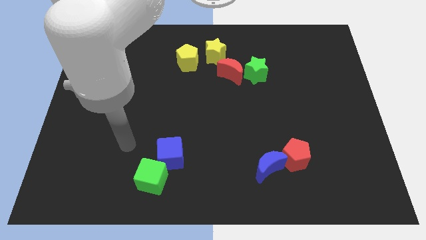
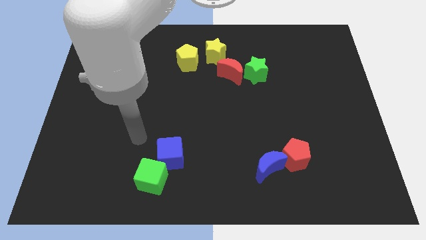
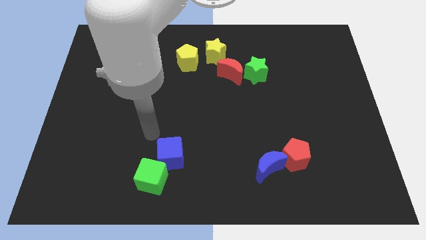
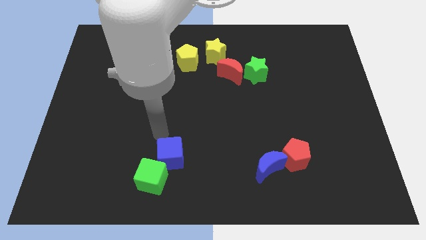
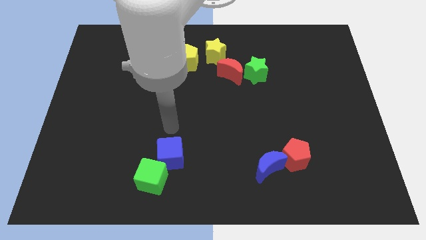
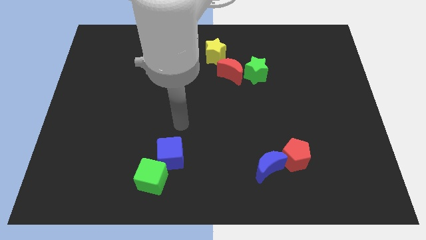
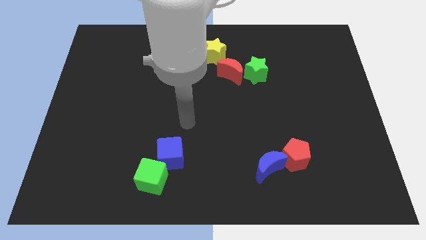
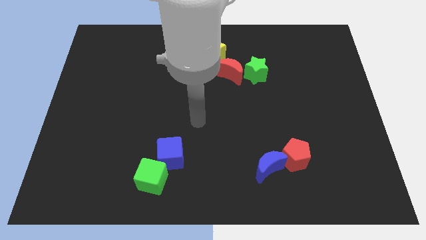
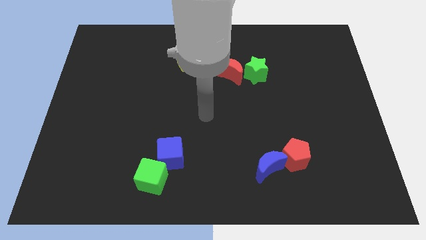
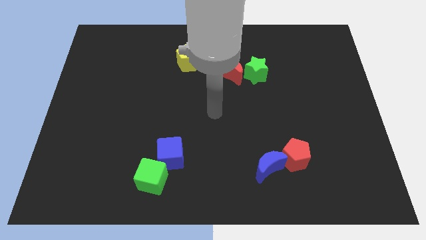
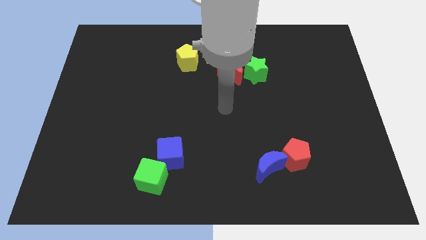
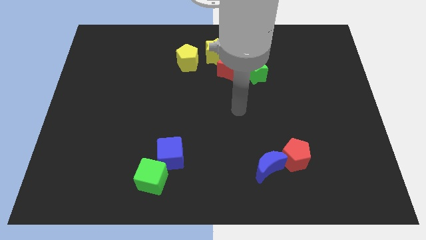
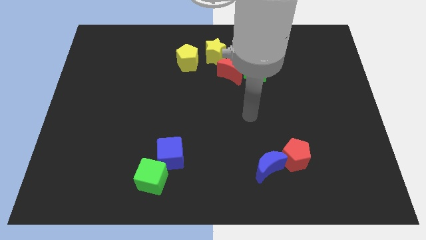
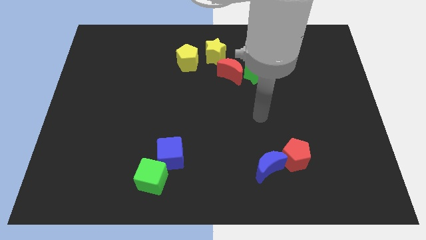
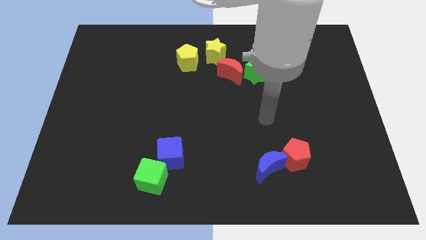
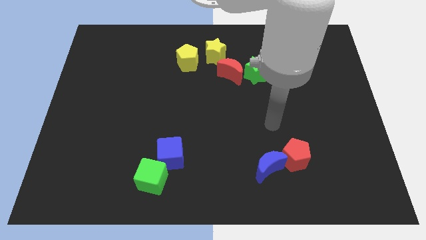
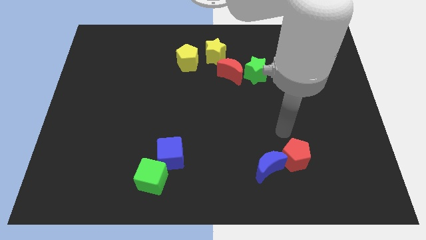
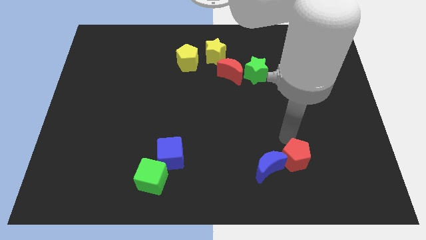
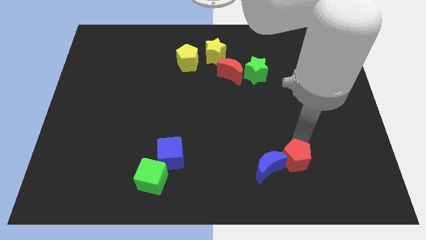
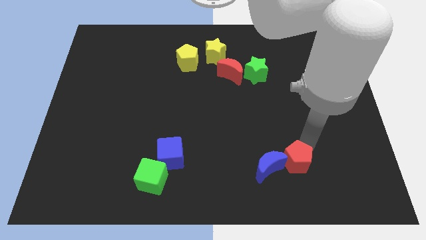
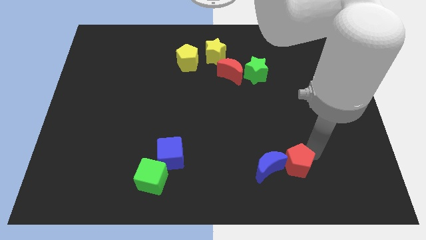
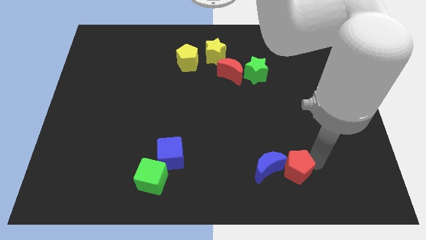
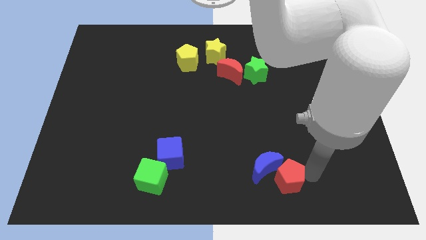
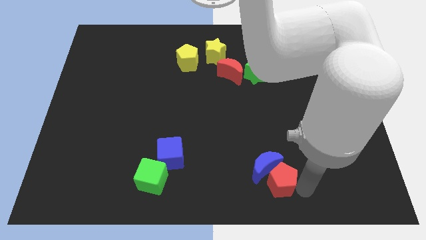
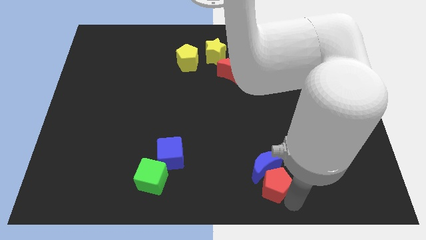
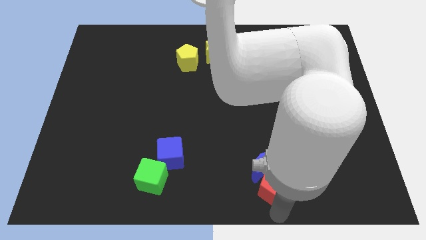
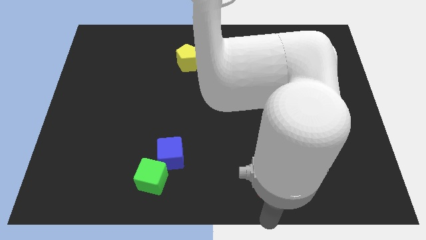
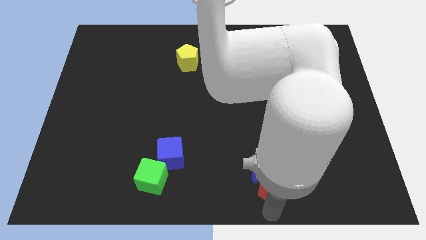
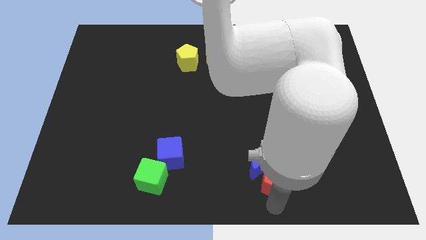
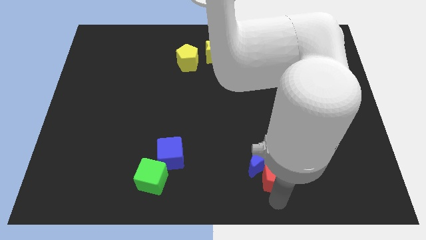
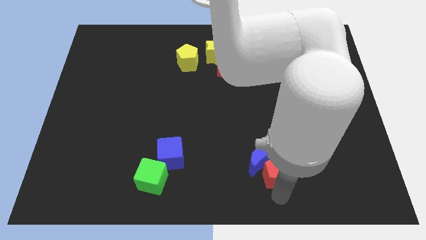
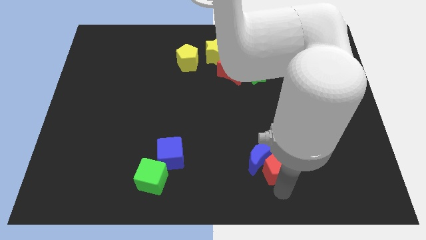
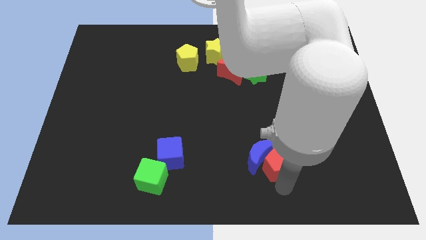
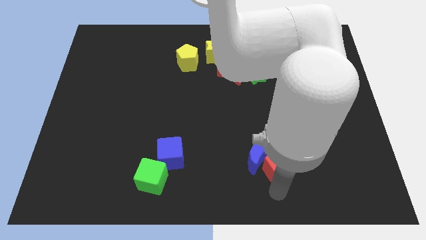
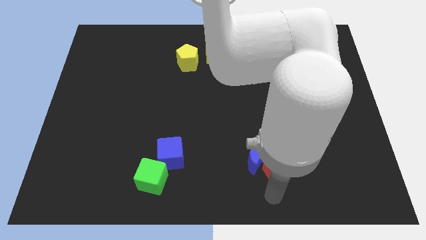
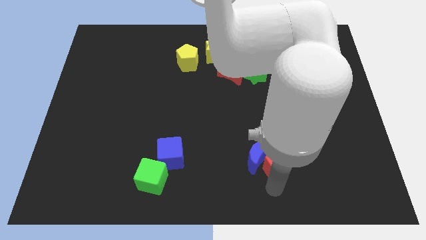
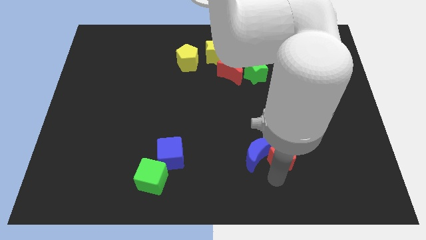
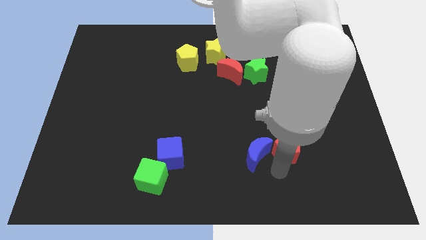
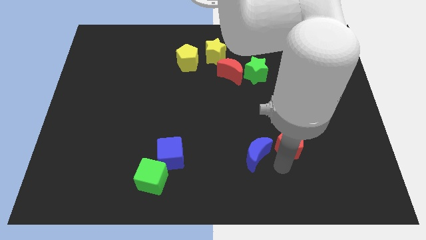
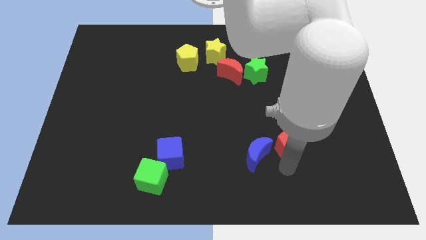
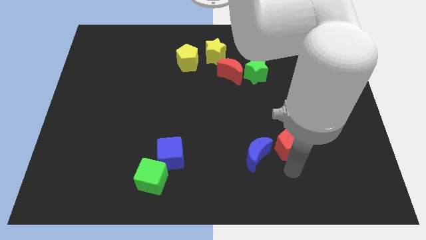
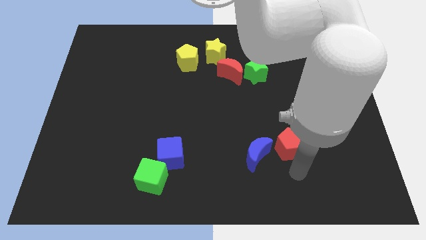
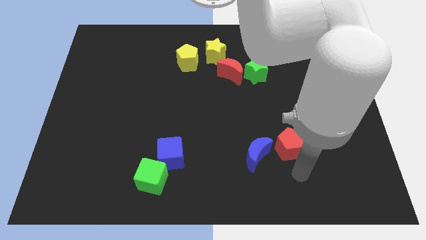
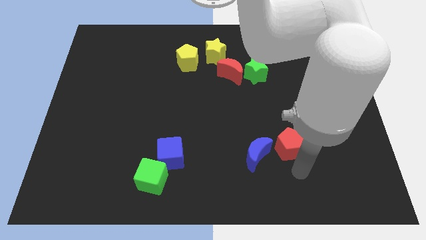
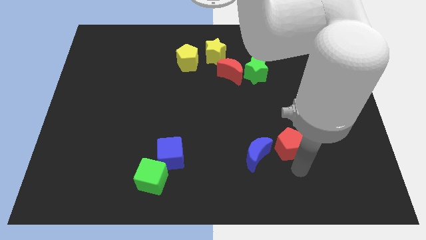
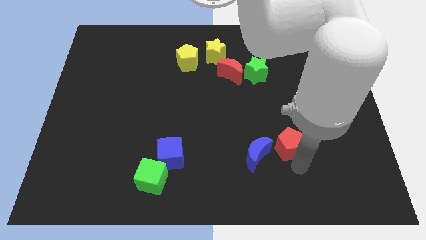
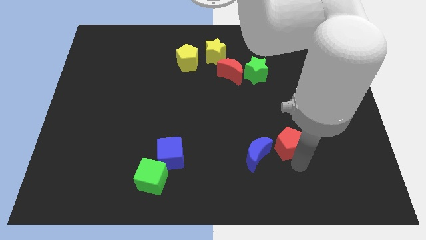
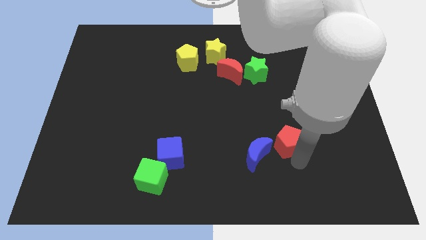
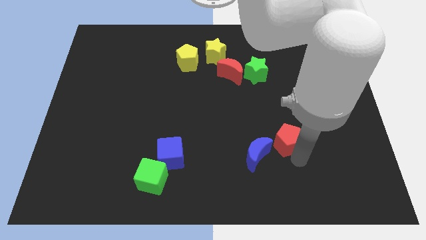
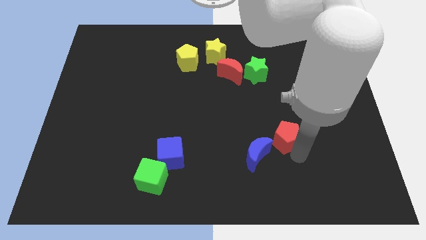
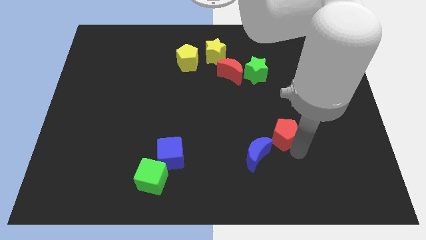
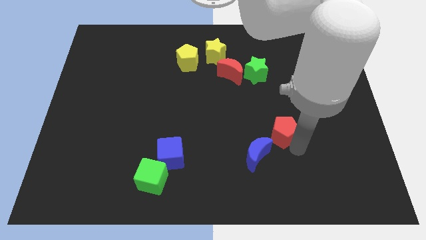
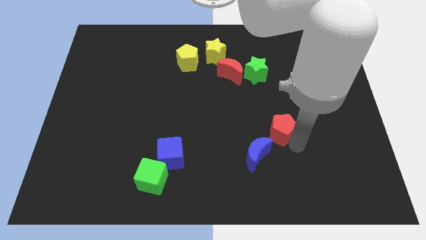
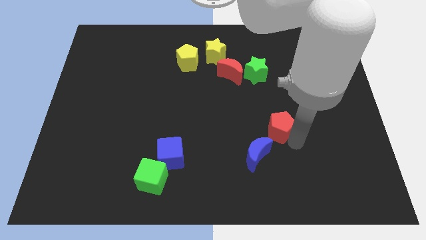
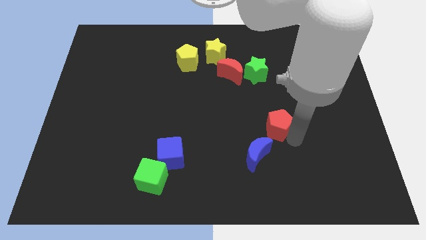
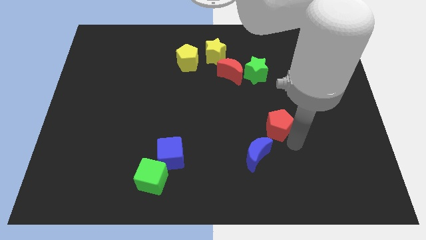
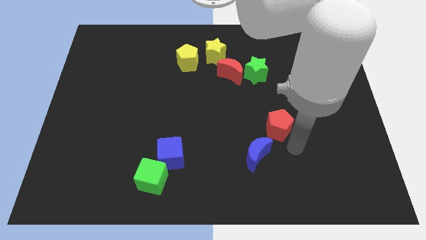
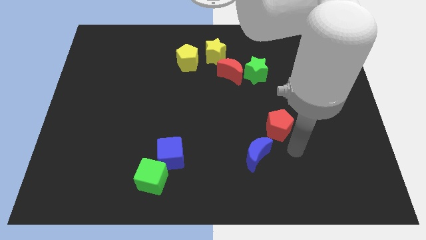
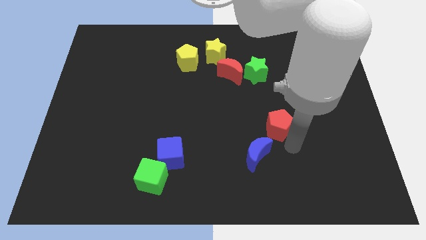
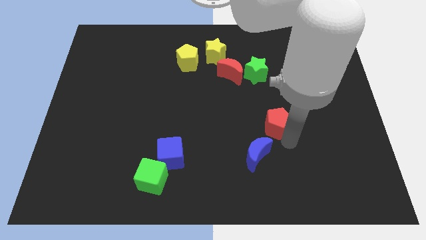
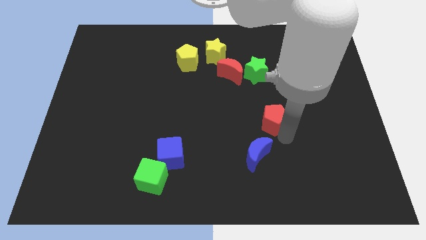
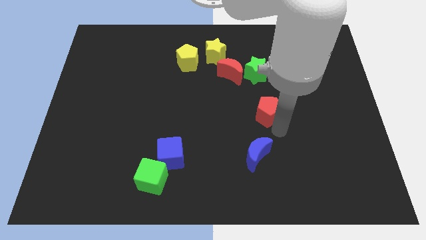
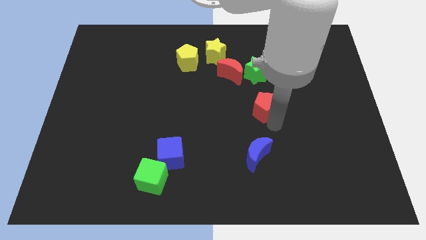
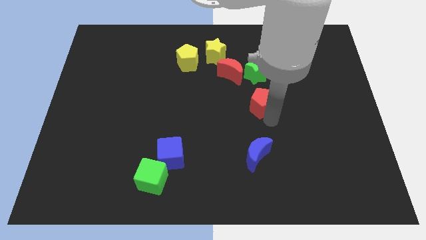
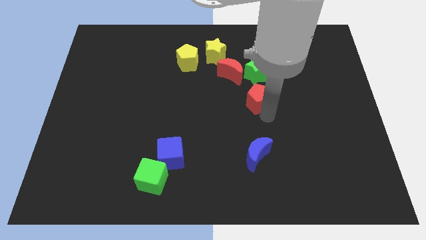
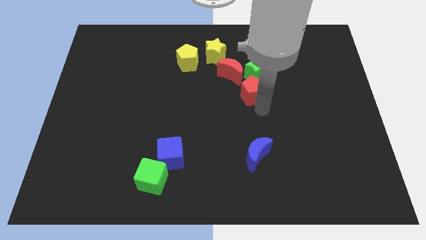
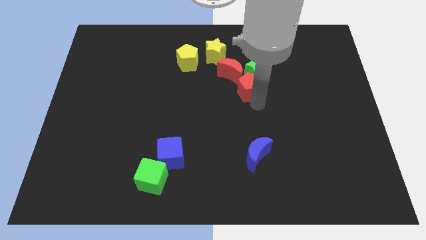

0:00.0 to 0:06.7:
move the red pentagon towards the green star

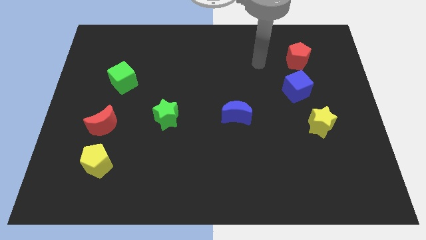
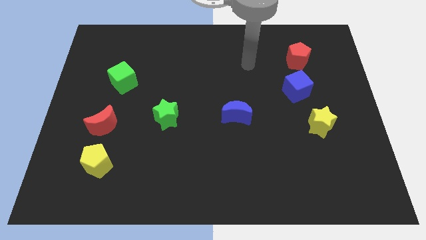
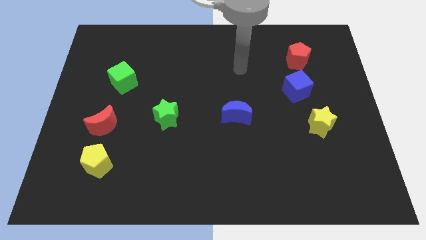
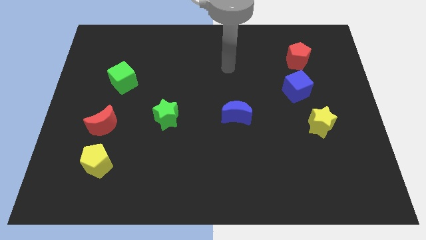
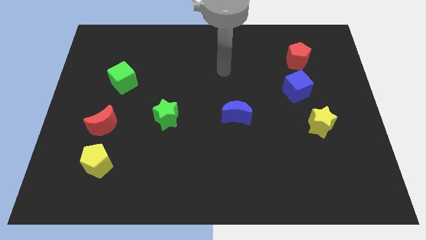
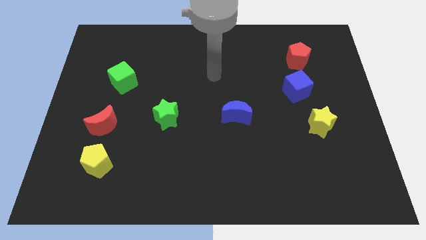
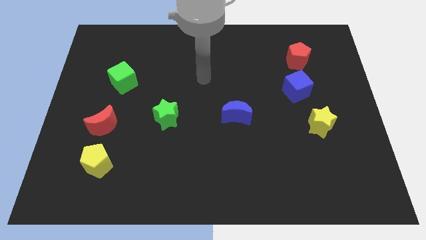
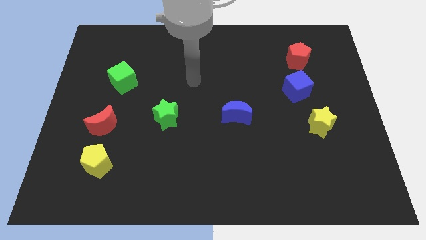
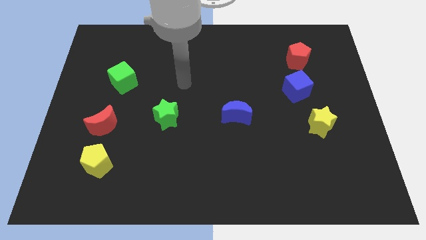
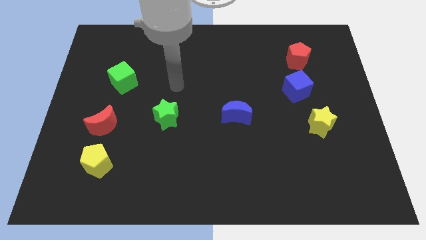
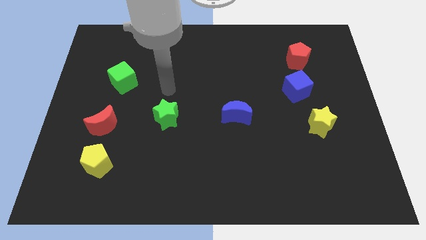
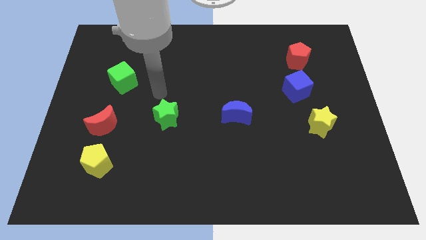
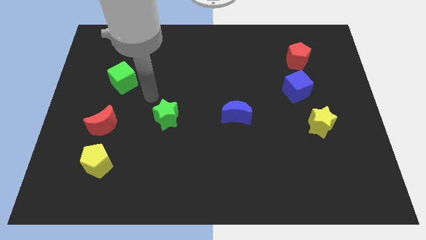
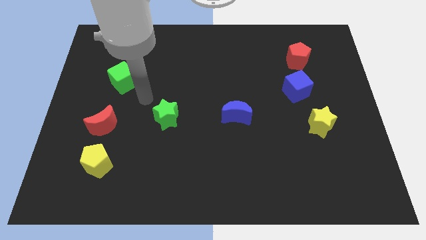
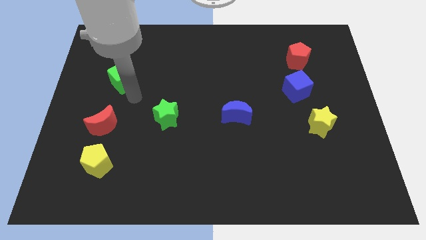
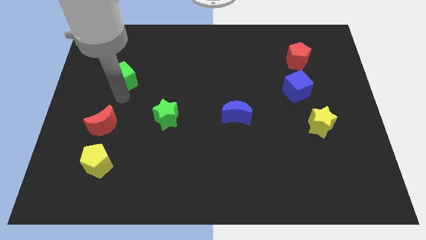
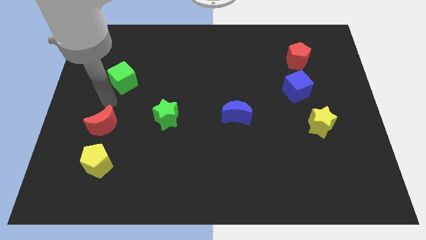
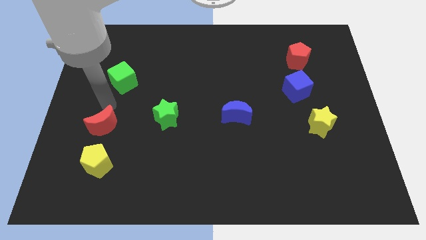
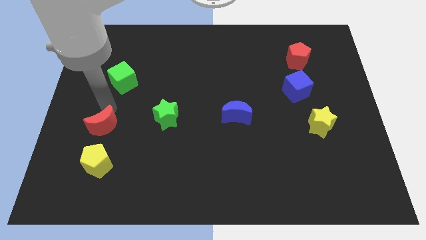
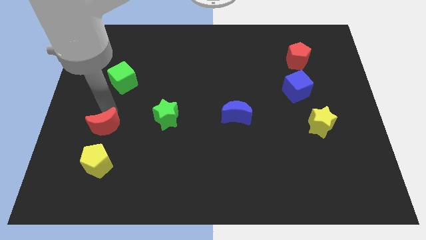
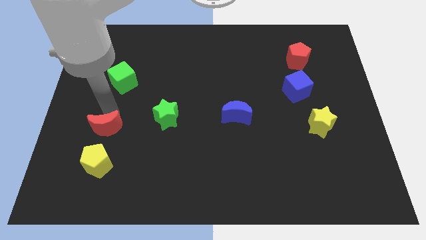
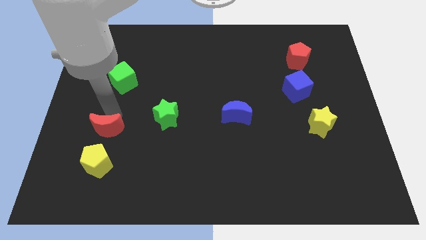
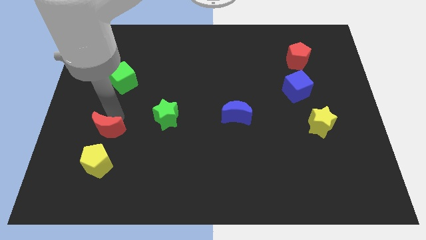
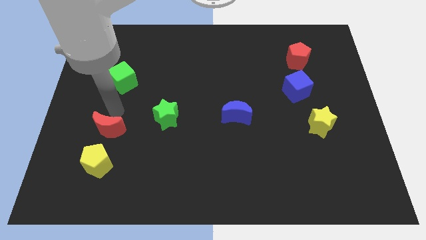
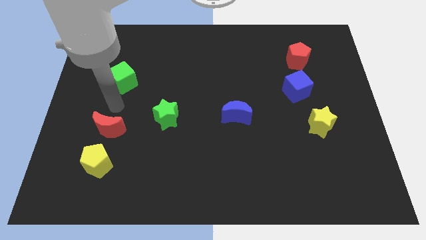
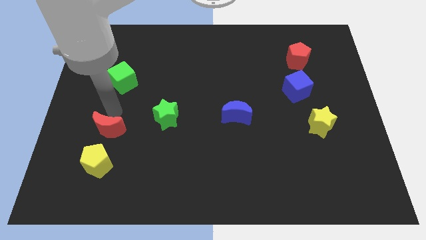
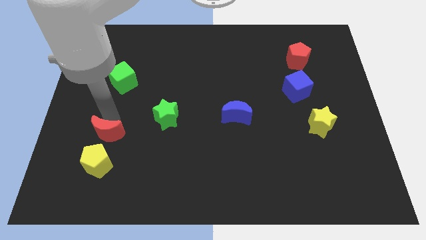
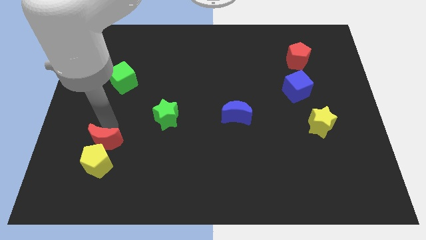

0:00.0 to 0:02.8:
slide the red moon towards the yellow pentagon
